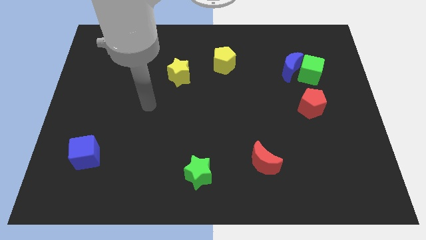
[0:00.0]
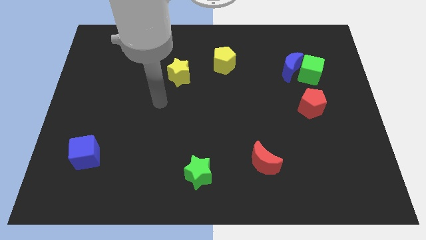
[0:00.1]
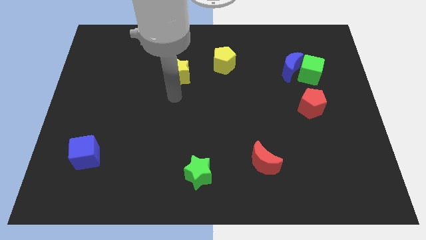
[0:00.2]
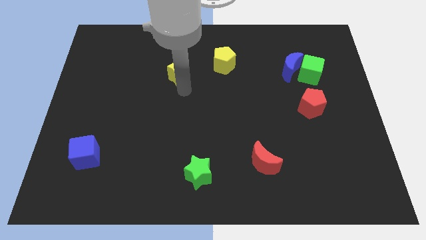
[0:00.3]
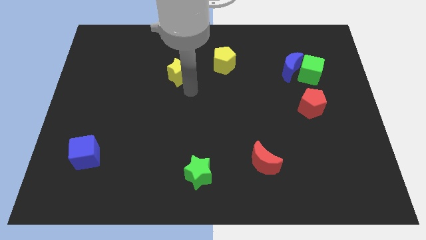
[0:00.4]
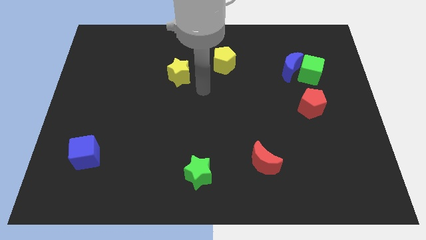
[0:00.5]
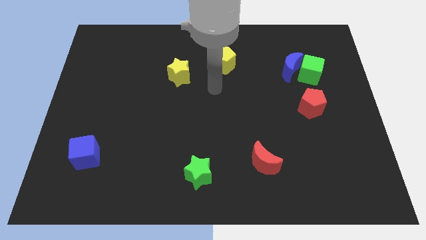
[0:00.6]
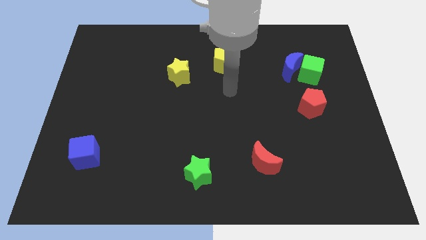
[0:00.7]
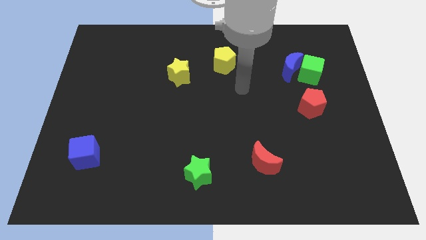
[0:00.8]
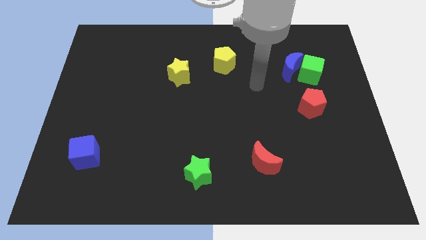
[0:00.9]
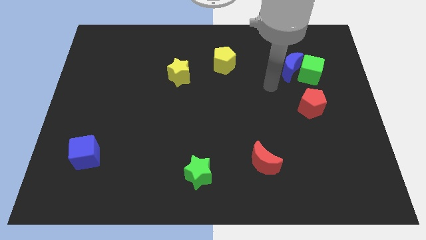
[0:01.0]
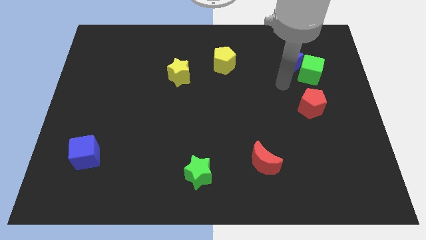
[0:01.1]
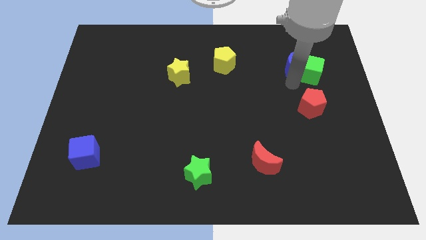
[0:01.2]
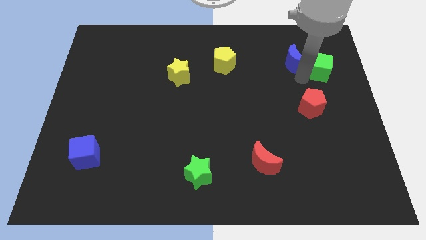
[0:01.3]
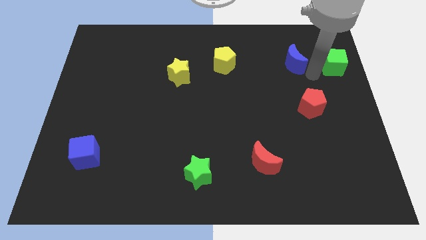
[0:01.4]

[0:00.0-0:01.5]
separate the blue moon from the green cube

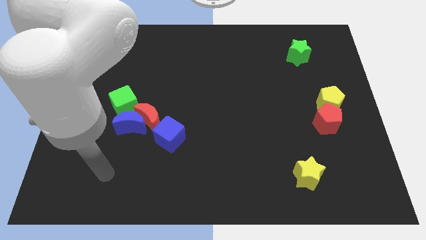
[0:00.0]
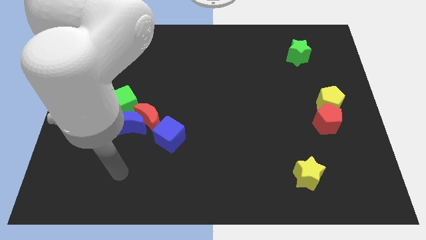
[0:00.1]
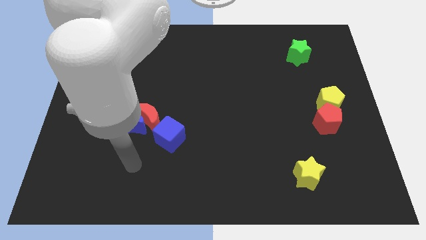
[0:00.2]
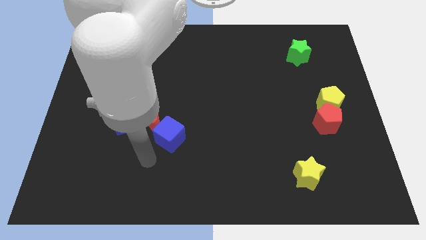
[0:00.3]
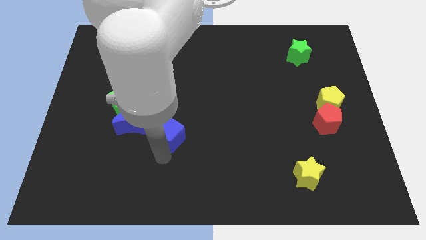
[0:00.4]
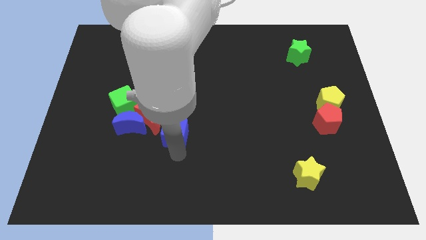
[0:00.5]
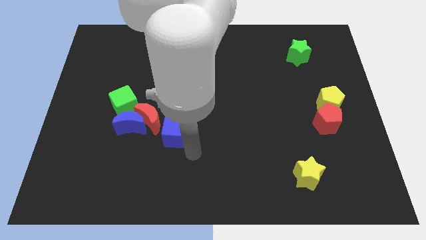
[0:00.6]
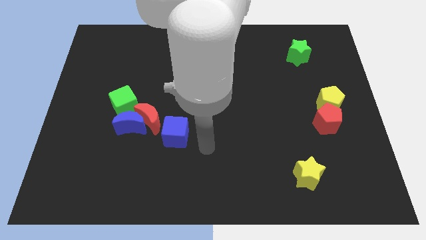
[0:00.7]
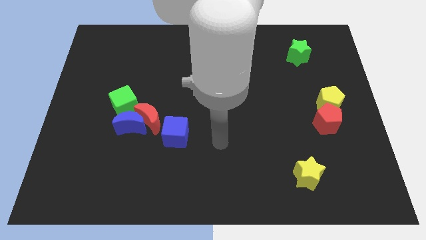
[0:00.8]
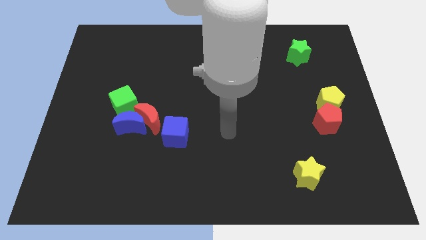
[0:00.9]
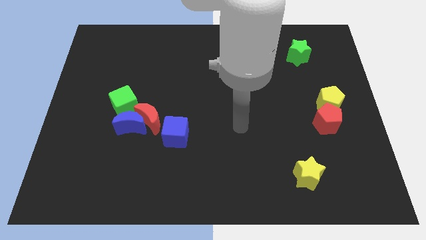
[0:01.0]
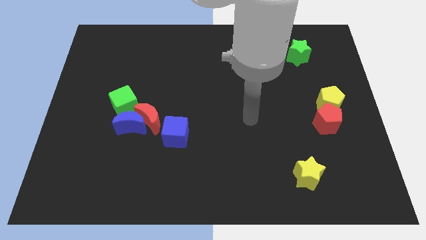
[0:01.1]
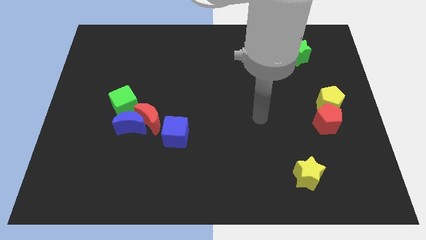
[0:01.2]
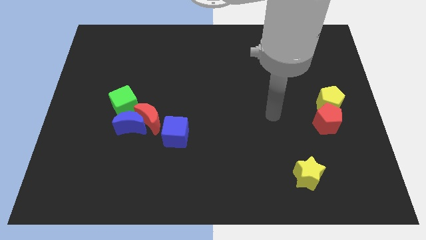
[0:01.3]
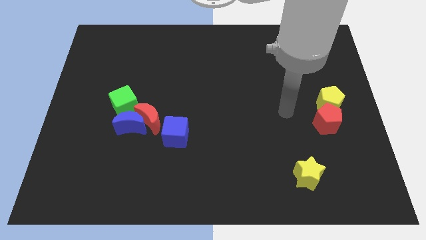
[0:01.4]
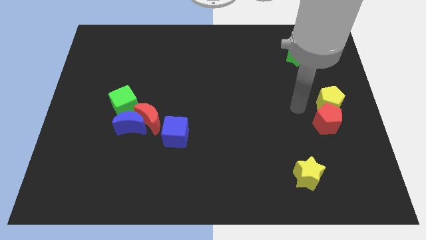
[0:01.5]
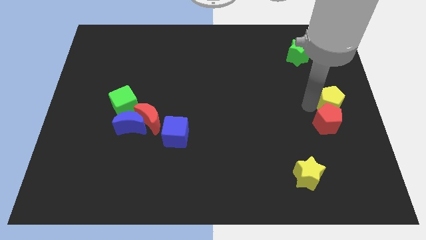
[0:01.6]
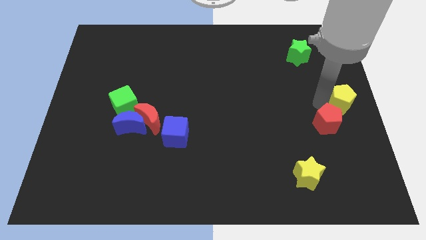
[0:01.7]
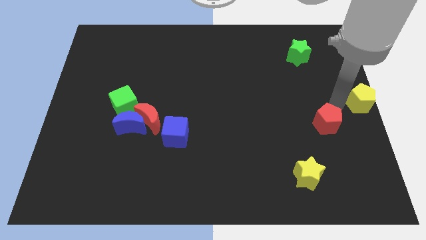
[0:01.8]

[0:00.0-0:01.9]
pull the red pentagon apart from the yellow pentagon

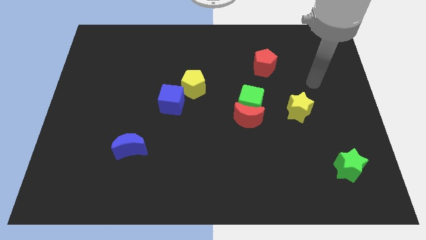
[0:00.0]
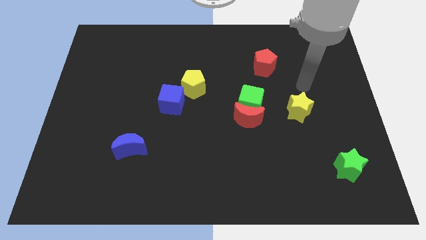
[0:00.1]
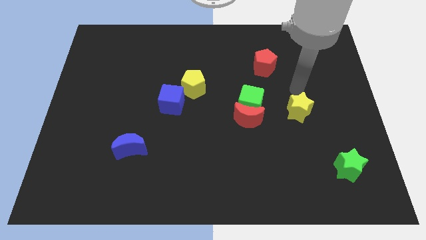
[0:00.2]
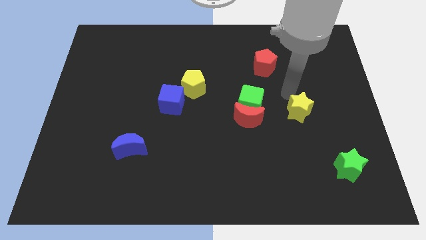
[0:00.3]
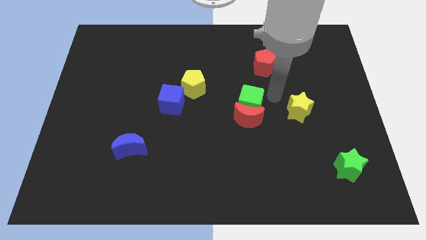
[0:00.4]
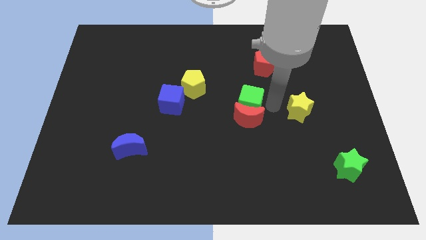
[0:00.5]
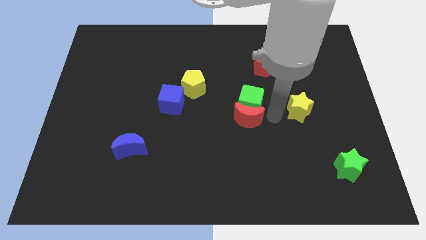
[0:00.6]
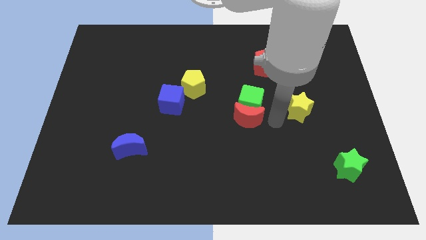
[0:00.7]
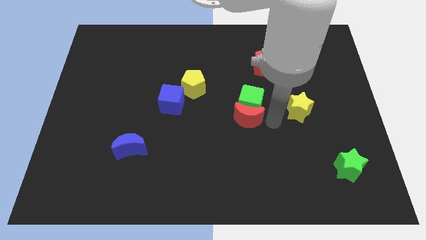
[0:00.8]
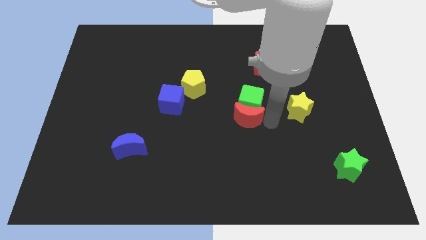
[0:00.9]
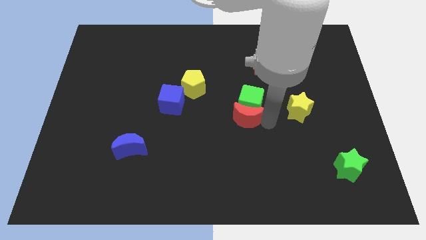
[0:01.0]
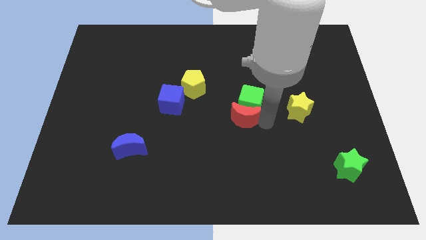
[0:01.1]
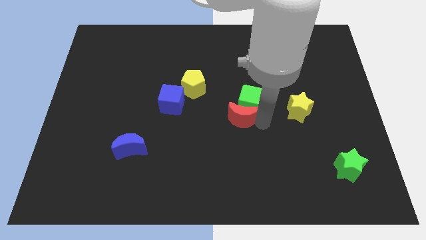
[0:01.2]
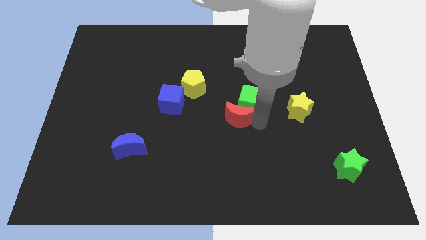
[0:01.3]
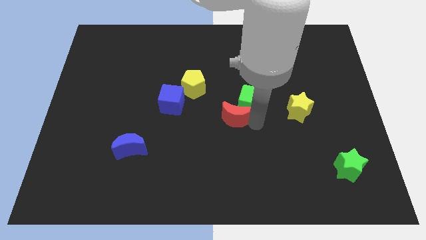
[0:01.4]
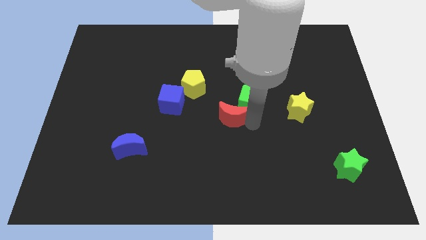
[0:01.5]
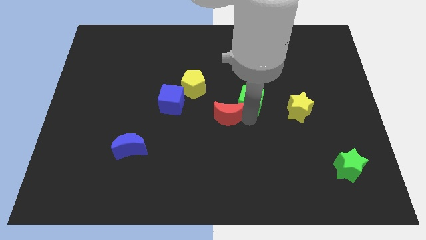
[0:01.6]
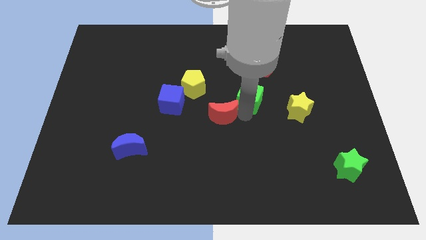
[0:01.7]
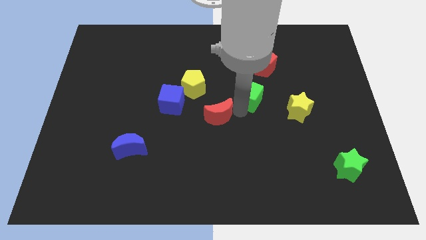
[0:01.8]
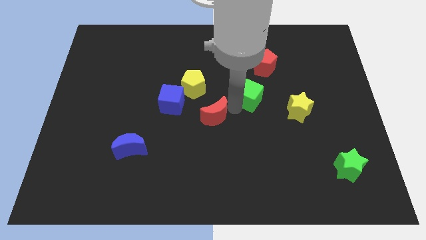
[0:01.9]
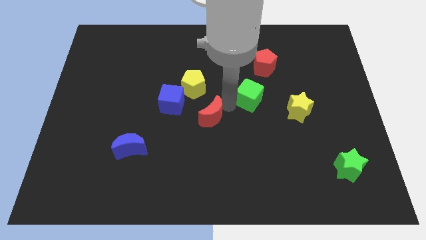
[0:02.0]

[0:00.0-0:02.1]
pull the red moon apart from the green cube

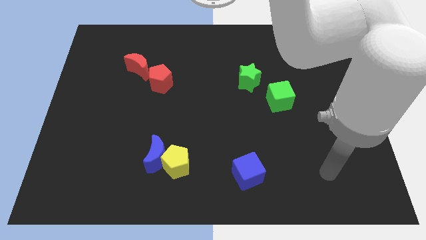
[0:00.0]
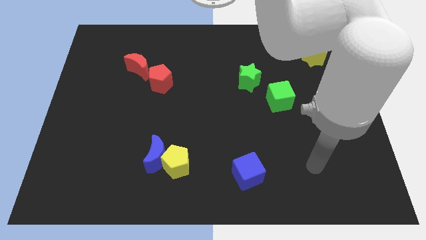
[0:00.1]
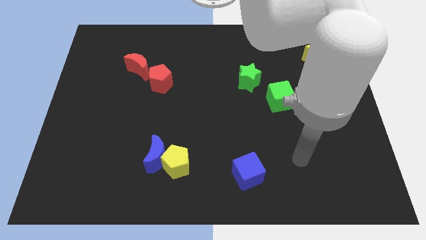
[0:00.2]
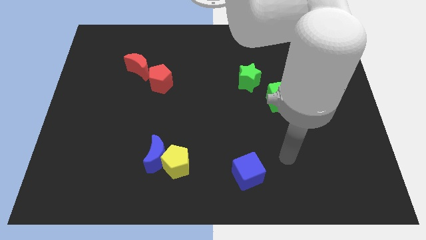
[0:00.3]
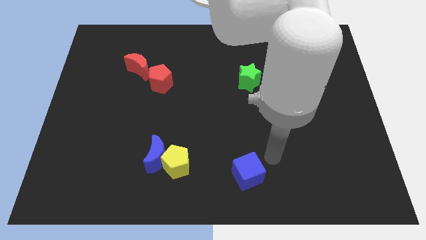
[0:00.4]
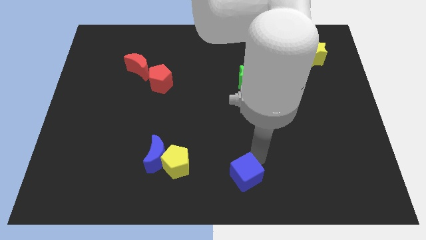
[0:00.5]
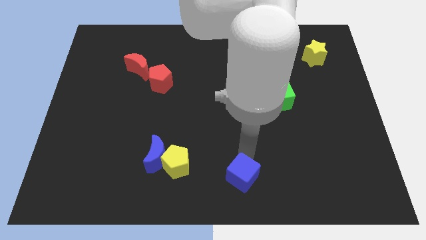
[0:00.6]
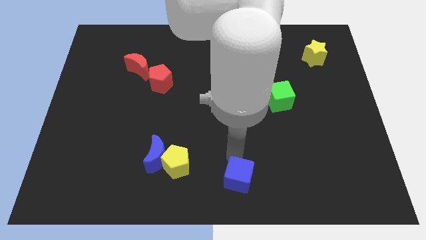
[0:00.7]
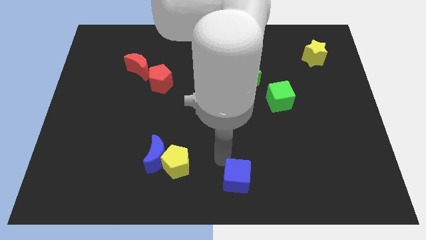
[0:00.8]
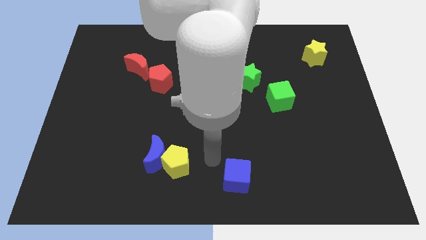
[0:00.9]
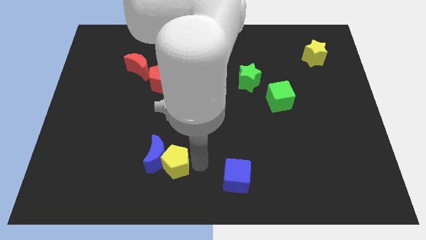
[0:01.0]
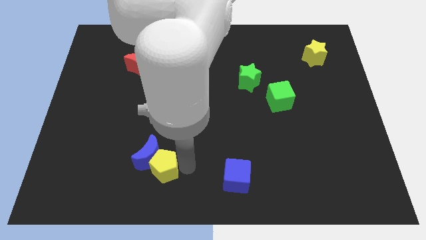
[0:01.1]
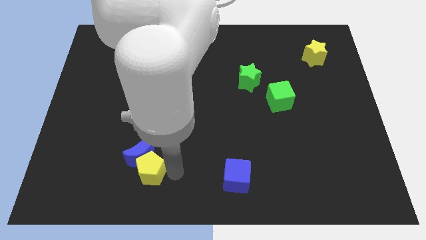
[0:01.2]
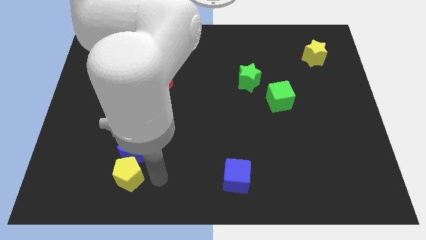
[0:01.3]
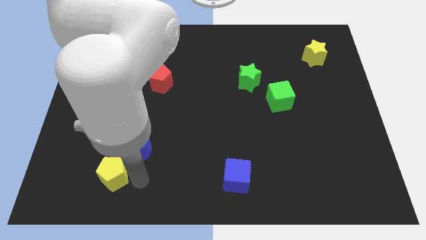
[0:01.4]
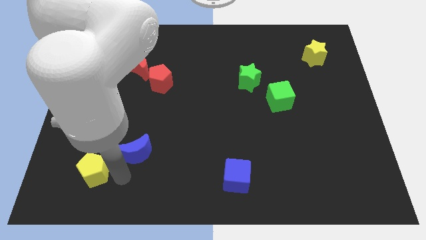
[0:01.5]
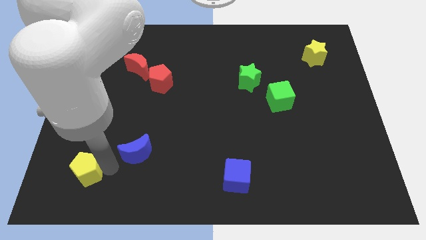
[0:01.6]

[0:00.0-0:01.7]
separate the blue moon from the yellow pentagon

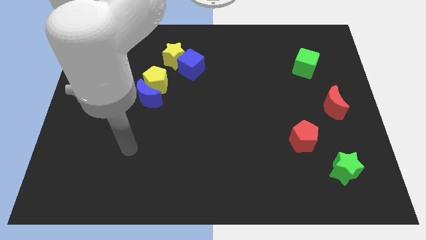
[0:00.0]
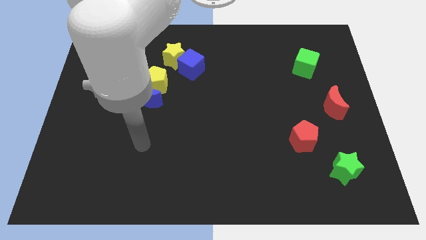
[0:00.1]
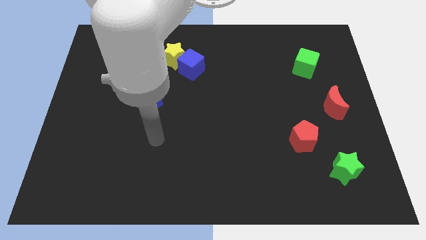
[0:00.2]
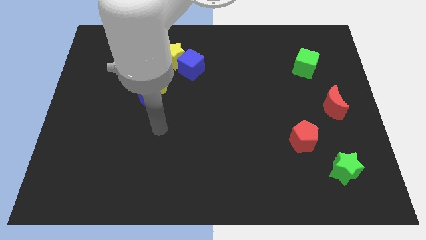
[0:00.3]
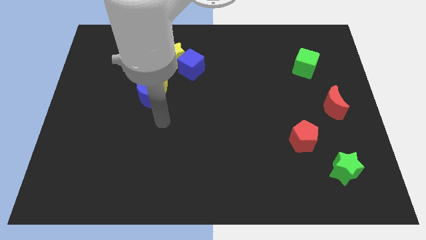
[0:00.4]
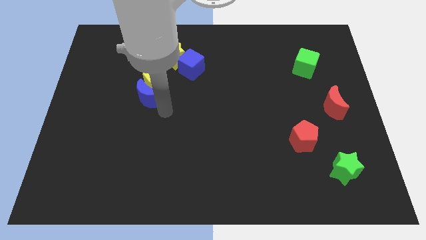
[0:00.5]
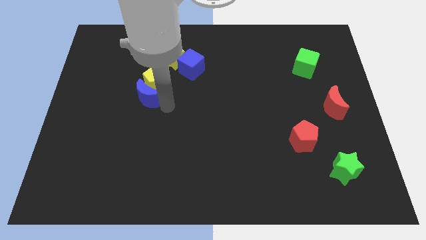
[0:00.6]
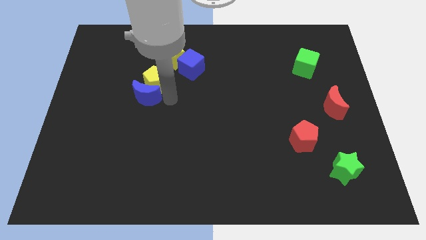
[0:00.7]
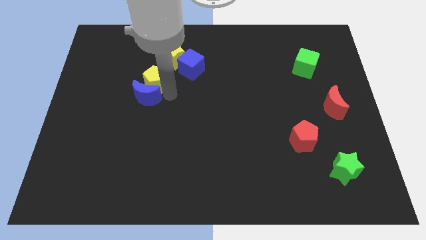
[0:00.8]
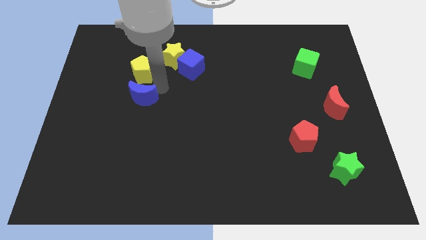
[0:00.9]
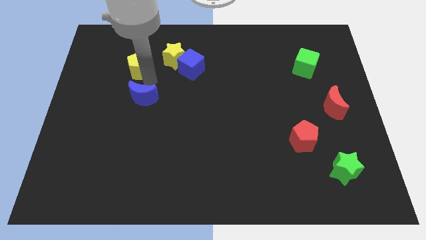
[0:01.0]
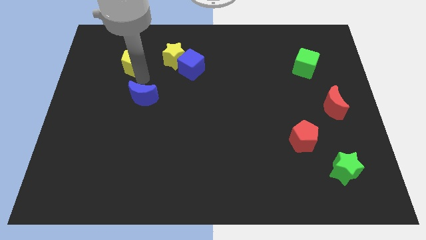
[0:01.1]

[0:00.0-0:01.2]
pull the blue moon apart from the yellow pentagon

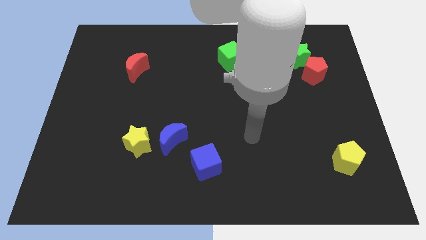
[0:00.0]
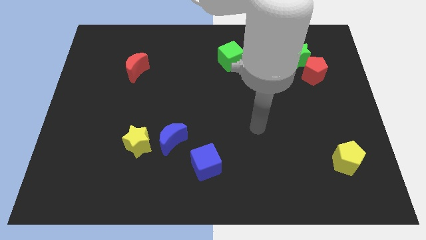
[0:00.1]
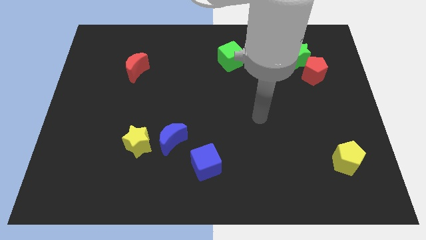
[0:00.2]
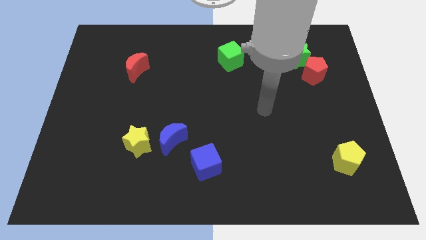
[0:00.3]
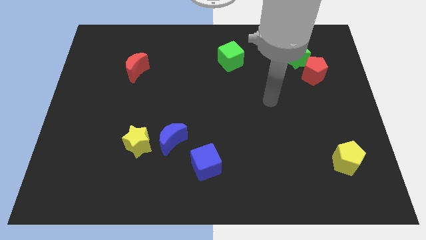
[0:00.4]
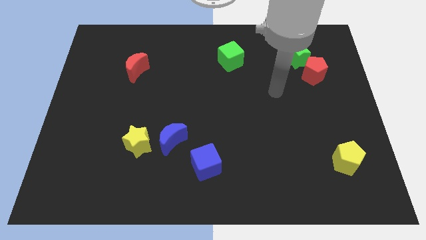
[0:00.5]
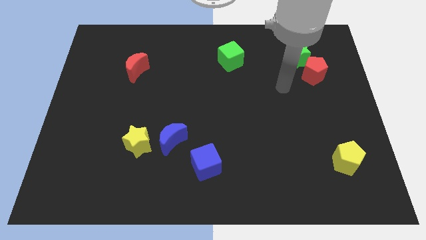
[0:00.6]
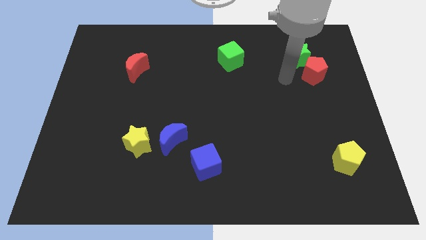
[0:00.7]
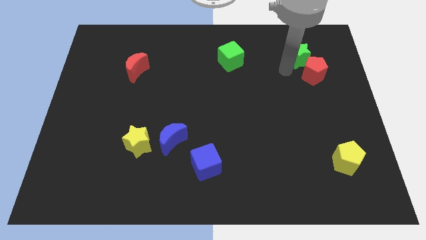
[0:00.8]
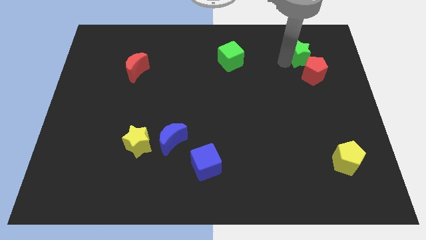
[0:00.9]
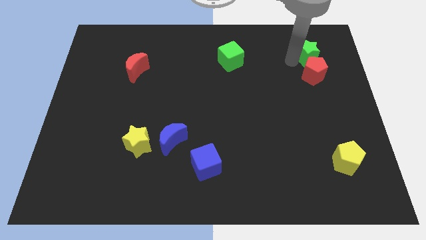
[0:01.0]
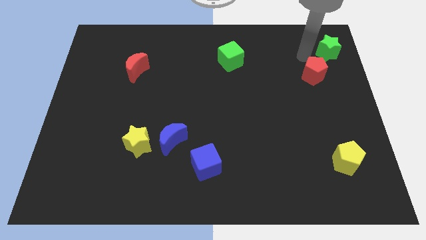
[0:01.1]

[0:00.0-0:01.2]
separate the red pentagon from the green star
